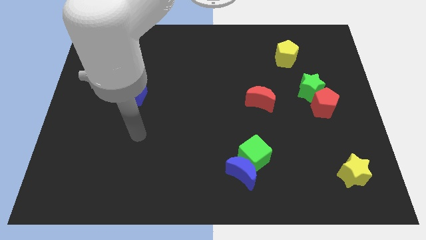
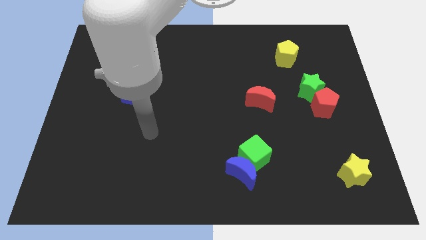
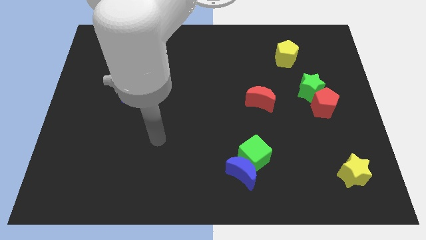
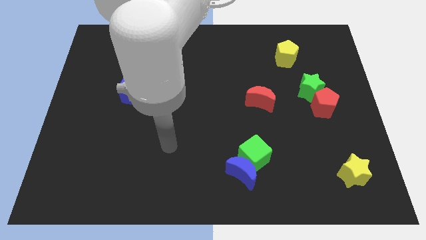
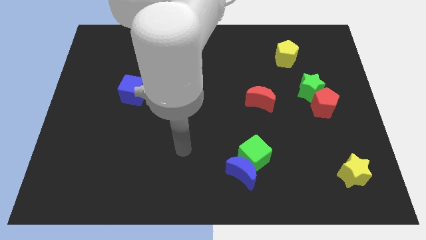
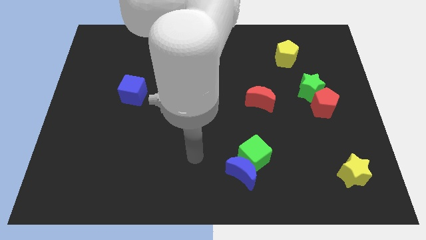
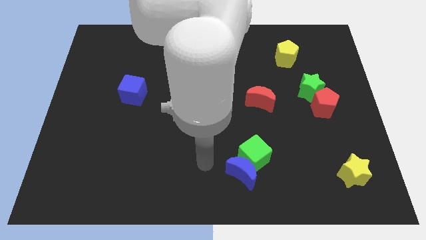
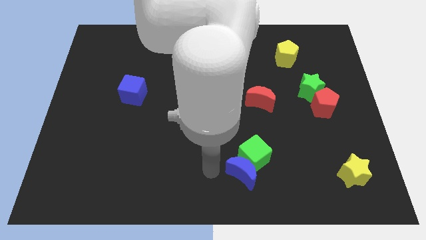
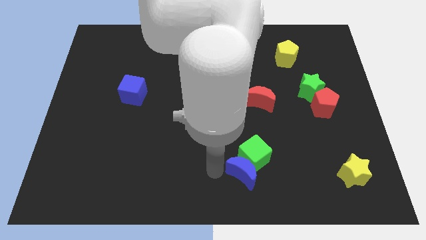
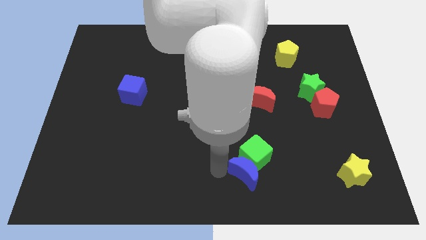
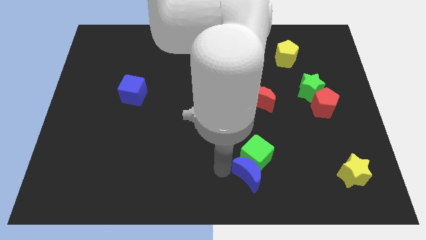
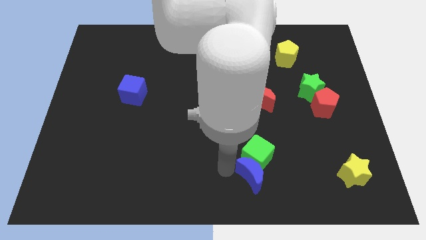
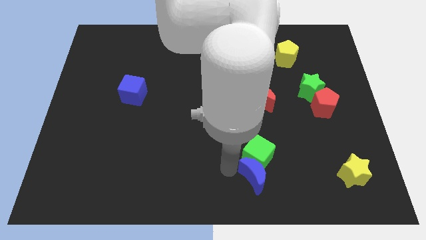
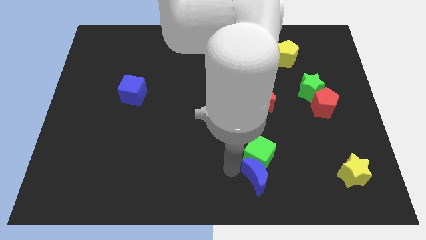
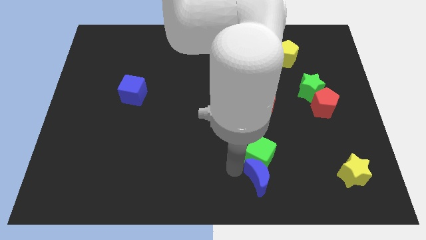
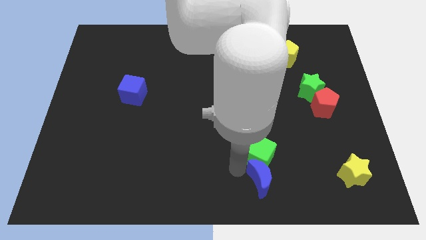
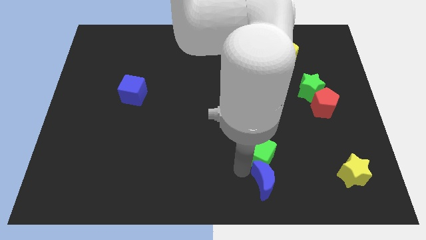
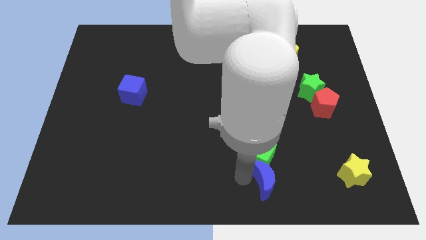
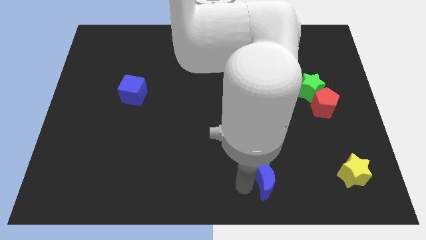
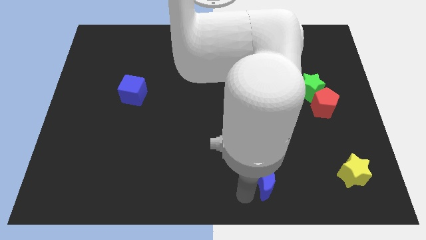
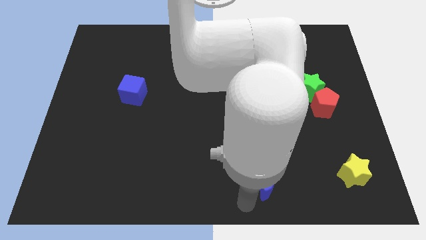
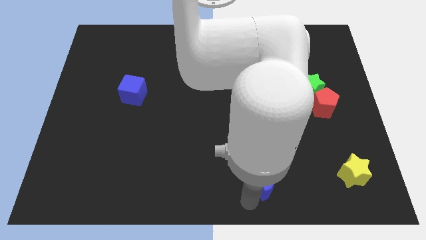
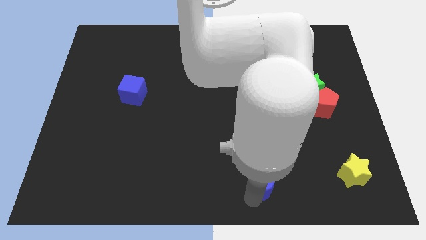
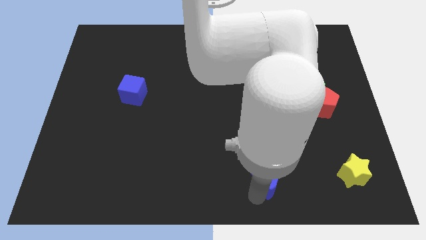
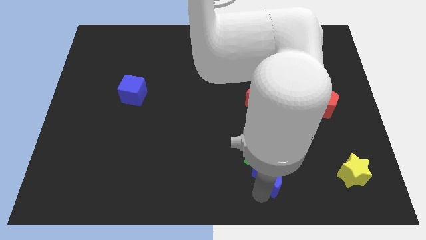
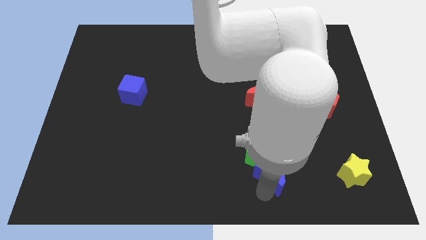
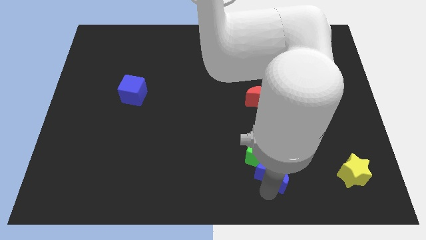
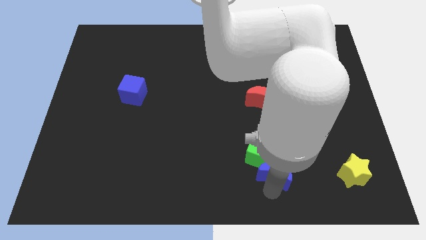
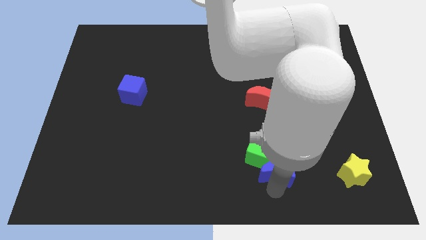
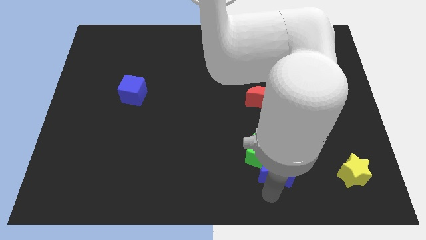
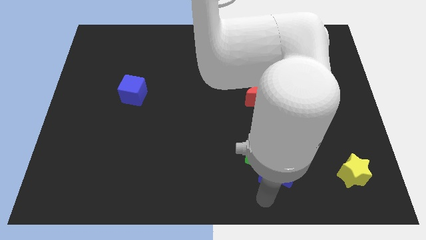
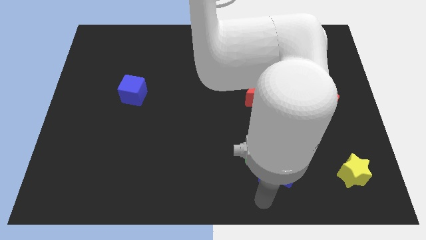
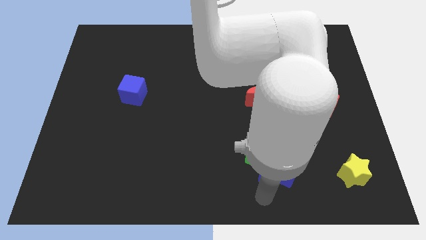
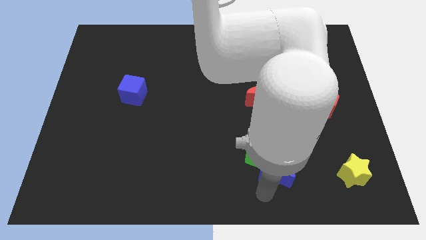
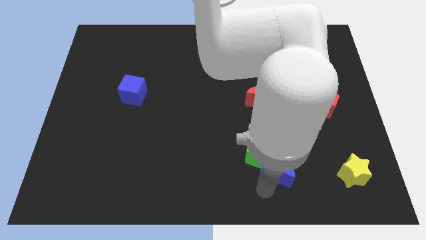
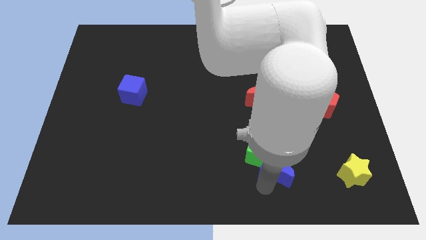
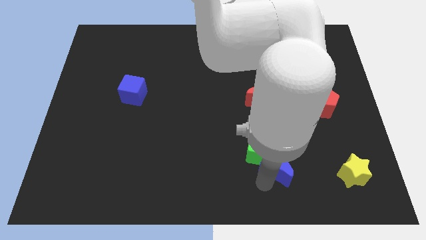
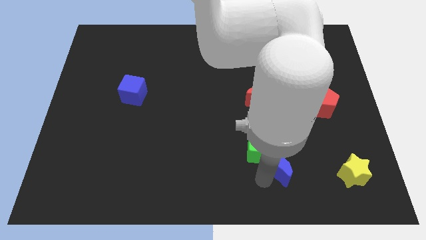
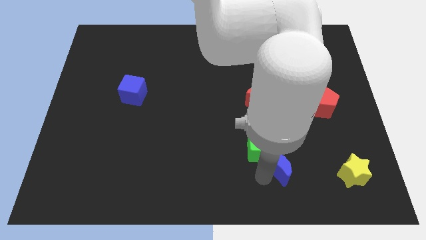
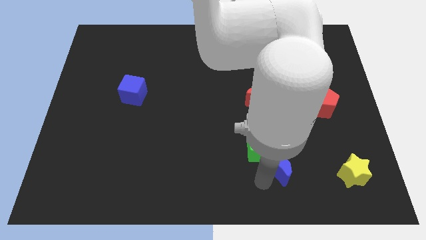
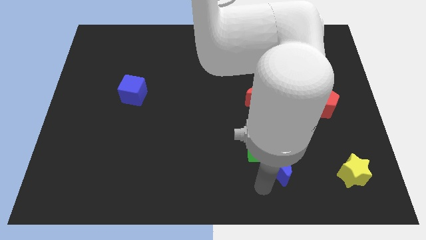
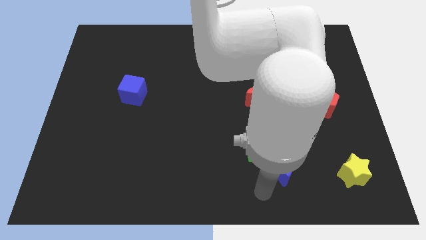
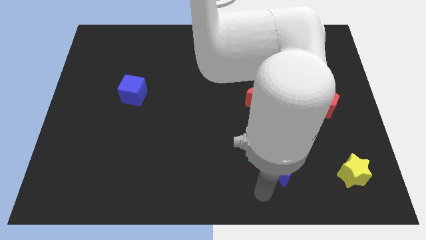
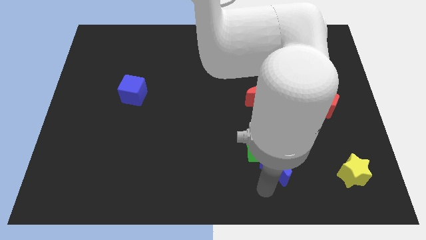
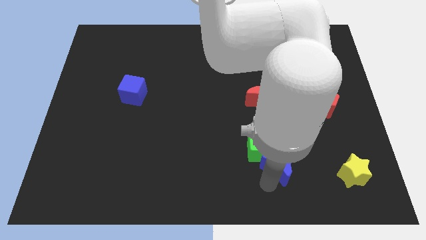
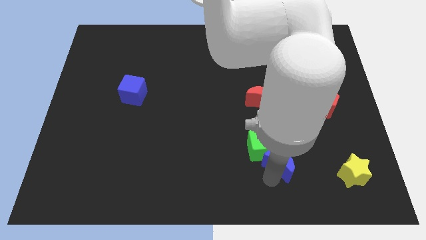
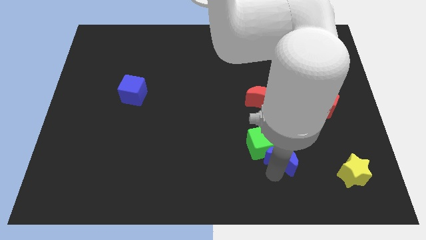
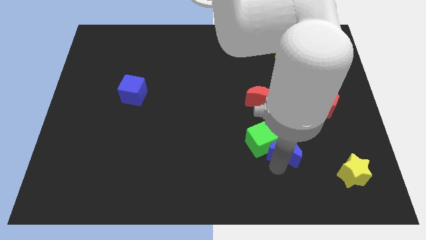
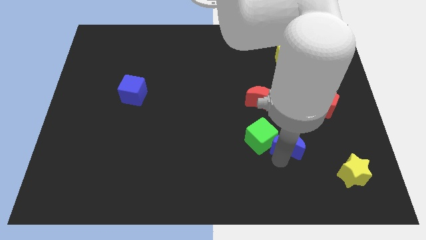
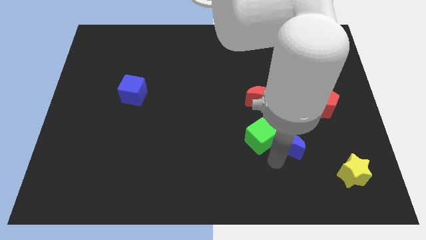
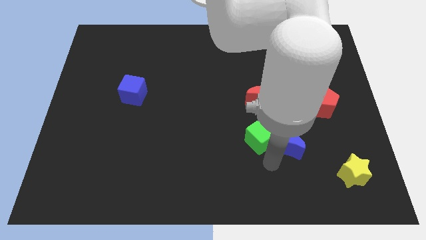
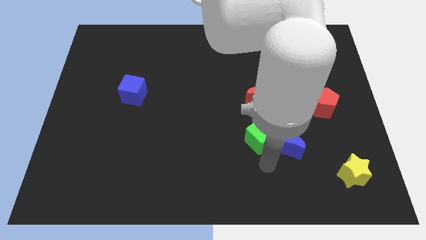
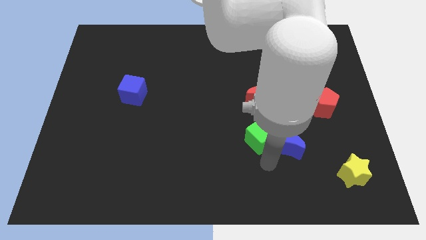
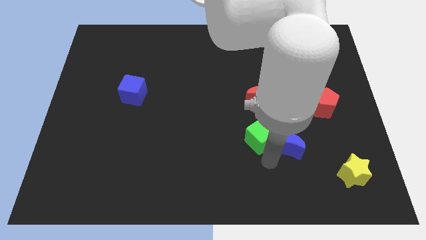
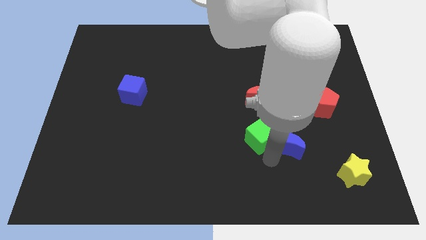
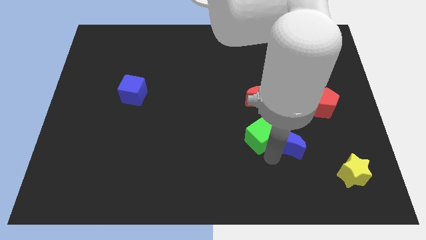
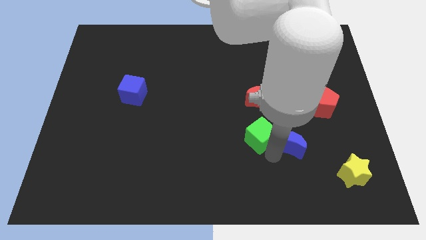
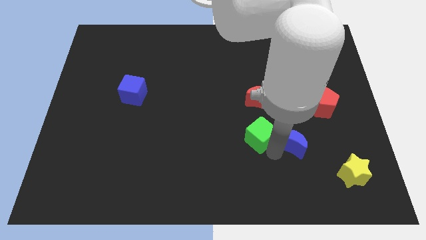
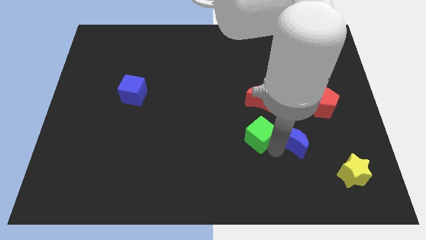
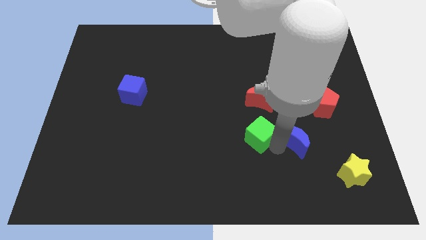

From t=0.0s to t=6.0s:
move the blue moon to the bottom left of the red pentagon

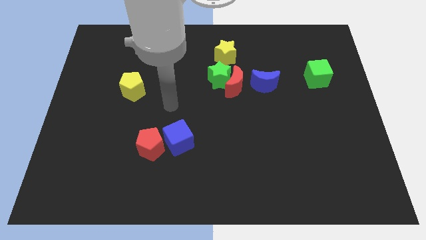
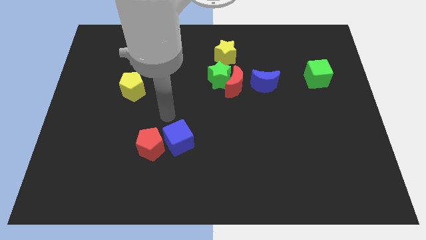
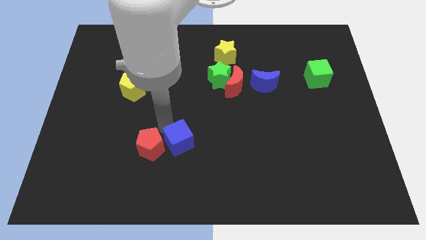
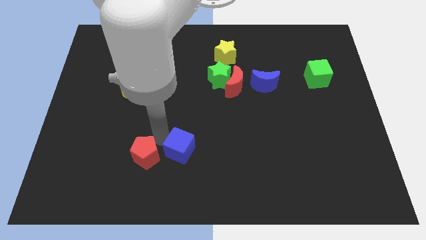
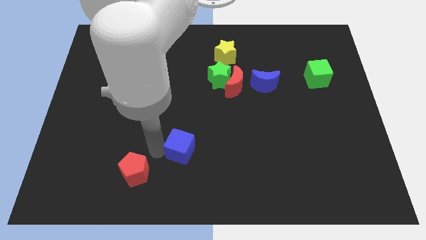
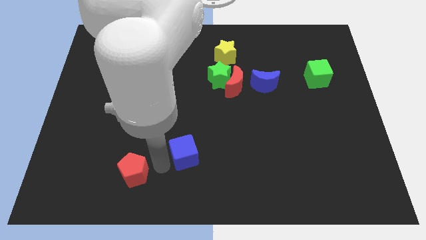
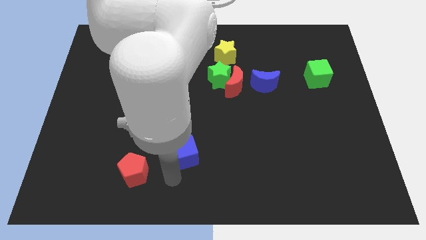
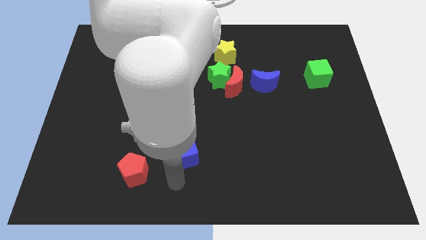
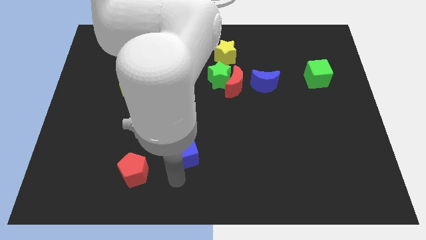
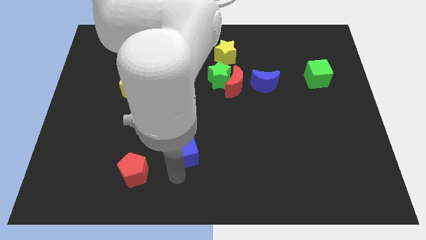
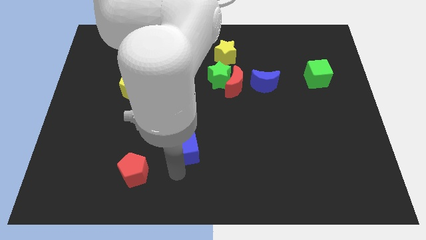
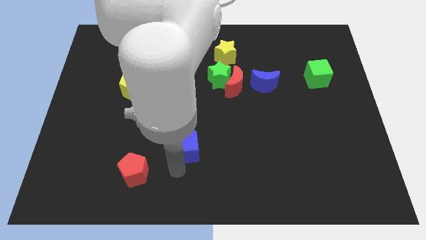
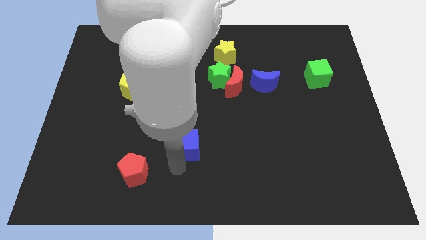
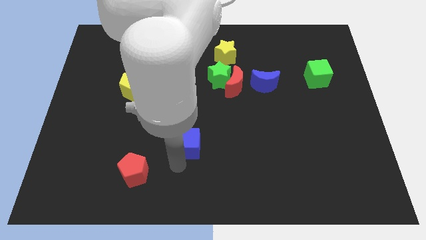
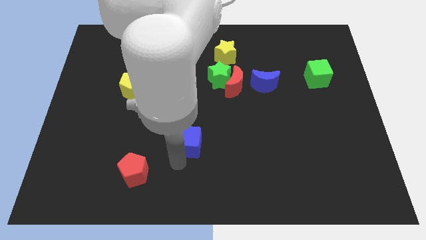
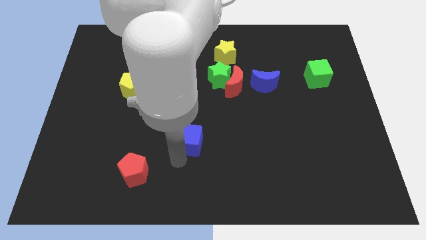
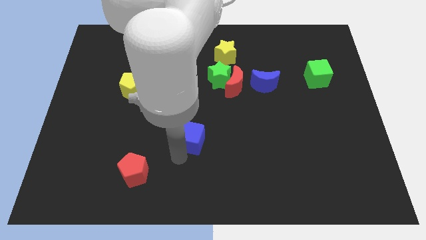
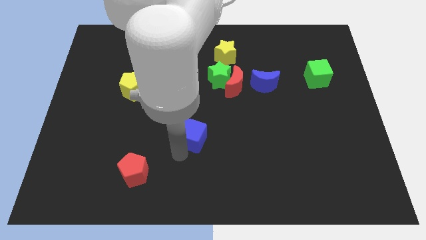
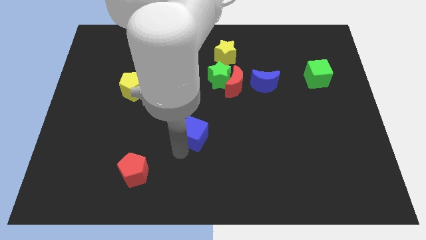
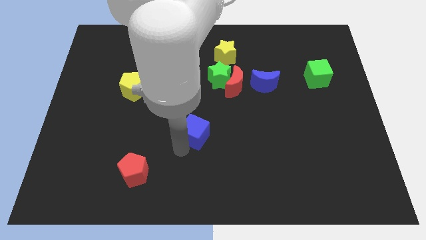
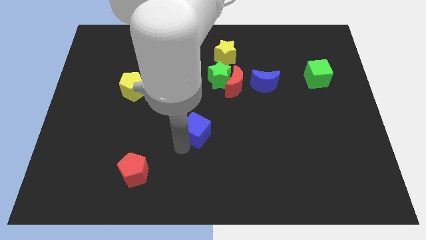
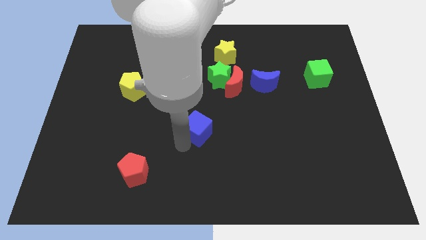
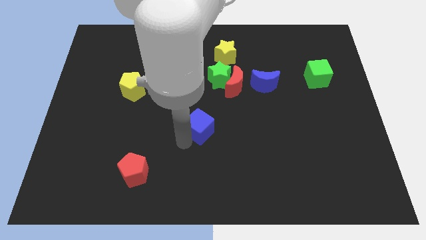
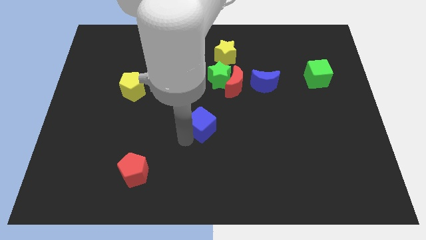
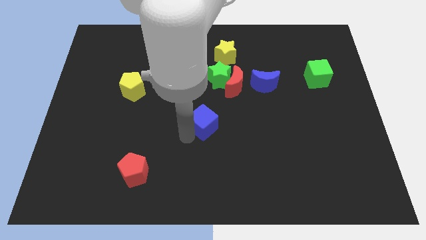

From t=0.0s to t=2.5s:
put the blue cube to the bottom of the green star
